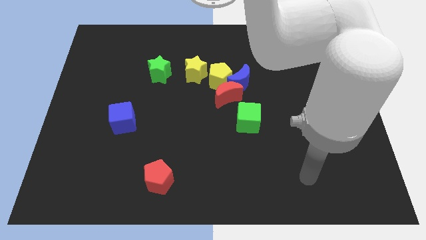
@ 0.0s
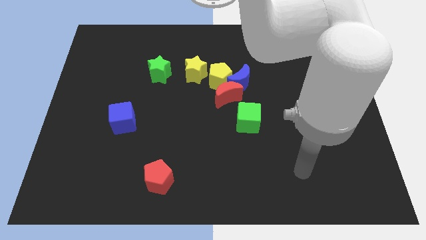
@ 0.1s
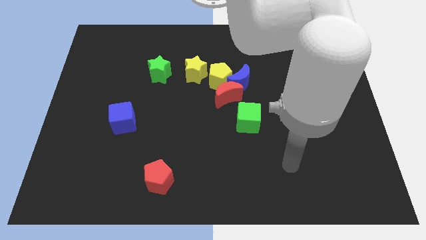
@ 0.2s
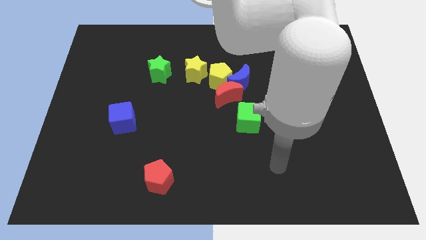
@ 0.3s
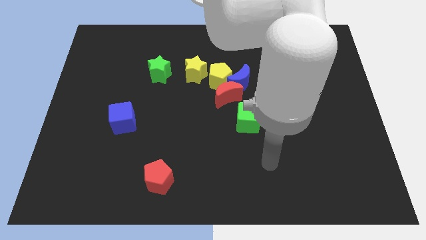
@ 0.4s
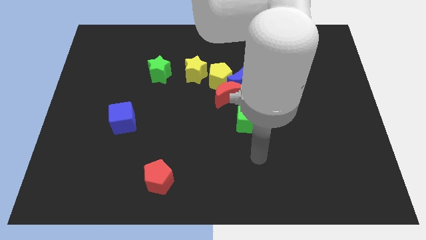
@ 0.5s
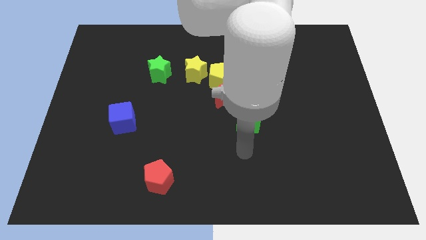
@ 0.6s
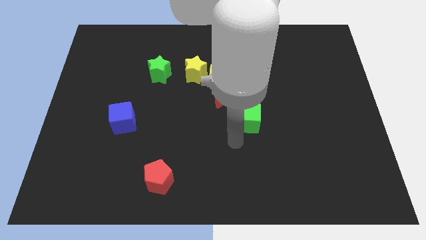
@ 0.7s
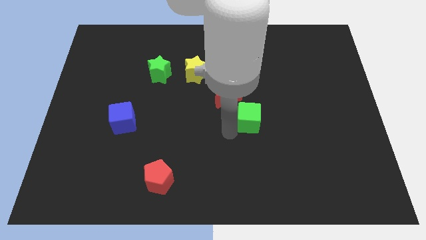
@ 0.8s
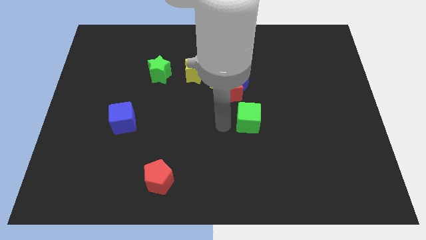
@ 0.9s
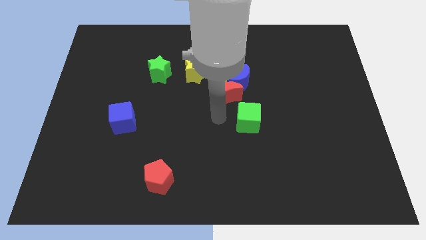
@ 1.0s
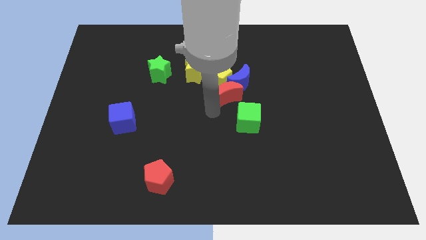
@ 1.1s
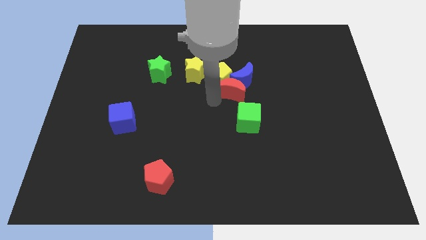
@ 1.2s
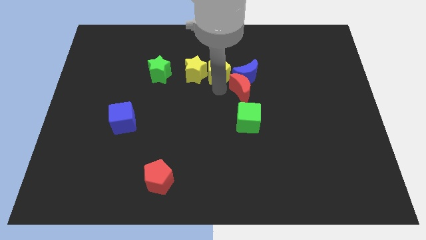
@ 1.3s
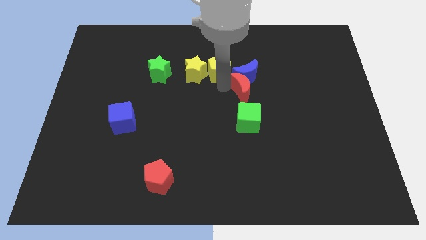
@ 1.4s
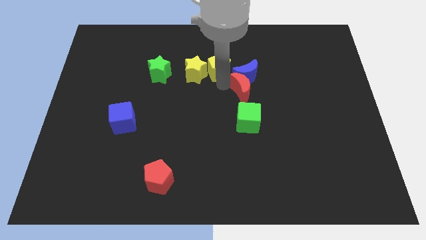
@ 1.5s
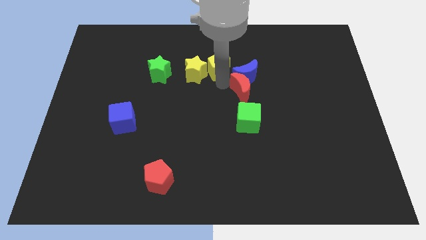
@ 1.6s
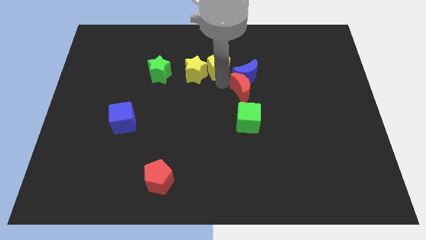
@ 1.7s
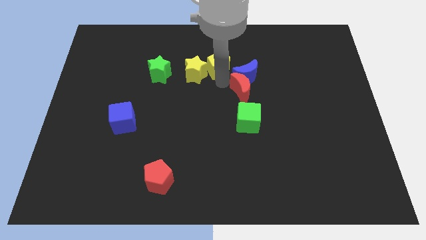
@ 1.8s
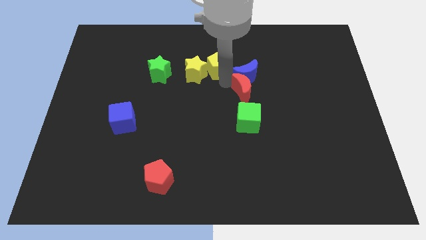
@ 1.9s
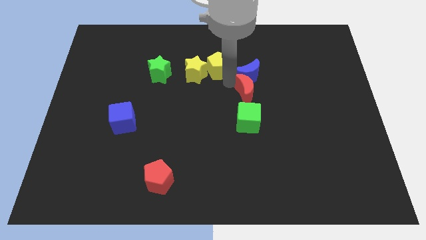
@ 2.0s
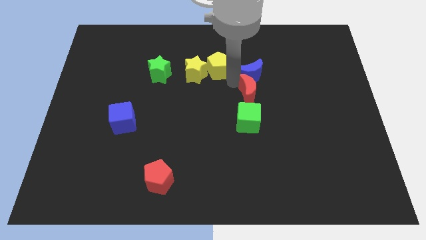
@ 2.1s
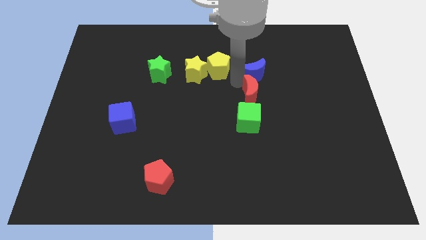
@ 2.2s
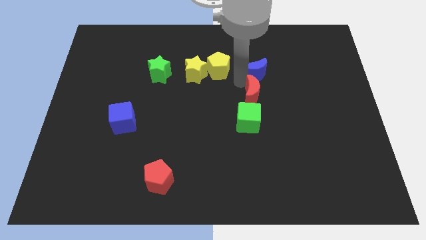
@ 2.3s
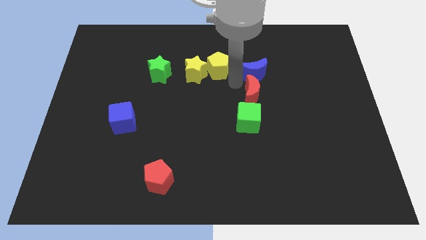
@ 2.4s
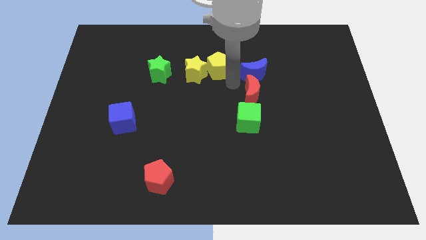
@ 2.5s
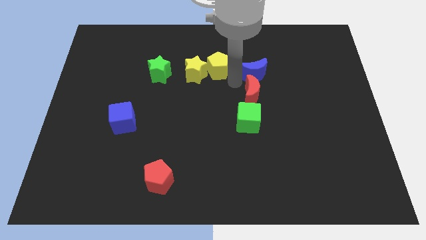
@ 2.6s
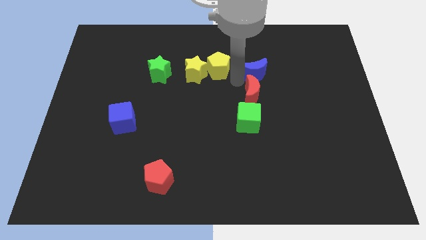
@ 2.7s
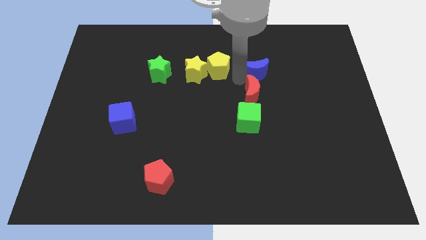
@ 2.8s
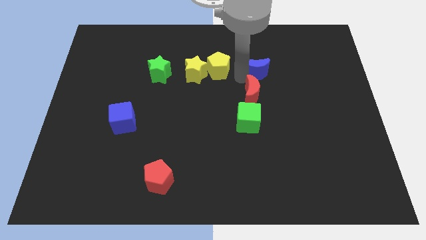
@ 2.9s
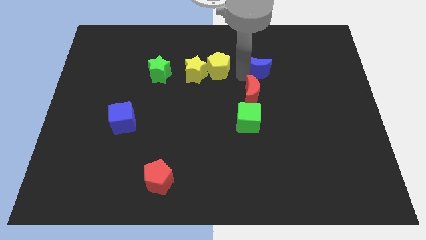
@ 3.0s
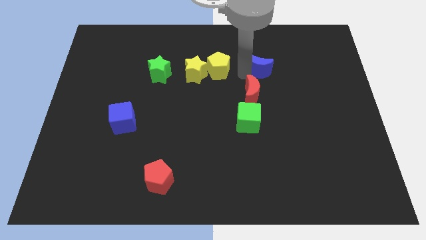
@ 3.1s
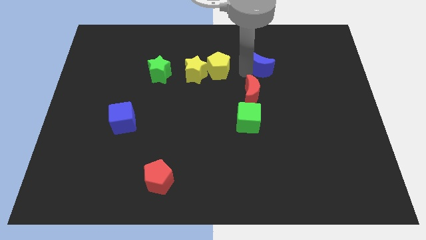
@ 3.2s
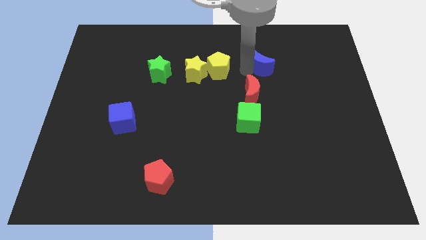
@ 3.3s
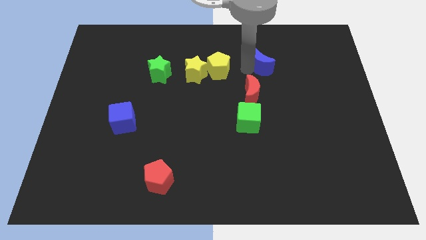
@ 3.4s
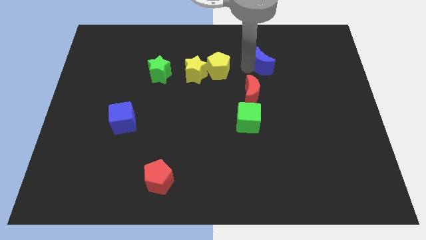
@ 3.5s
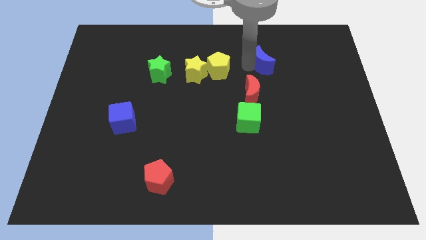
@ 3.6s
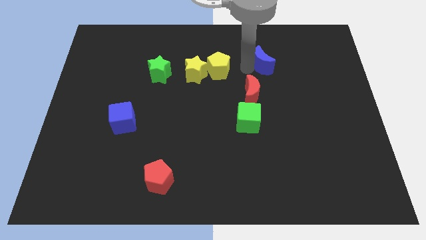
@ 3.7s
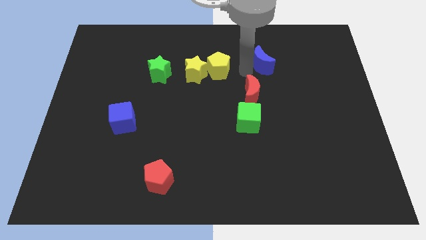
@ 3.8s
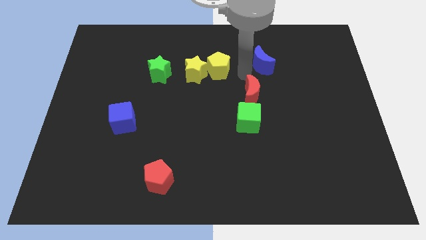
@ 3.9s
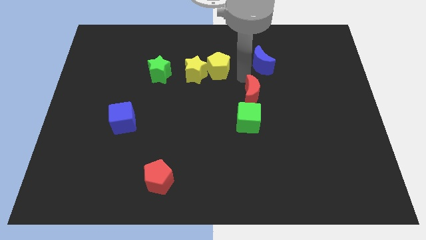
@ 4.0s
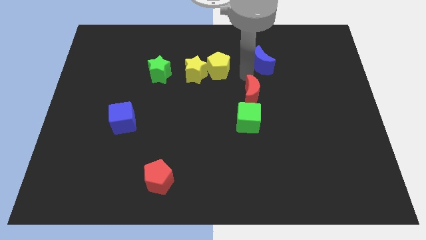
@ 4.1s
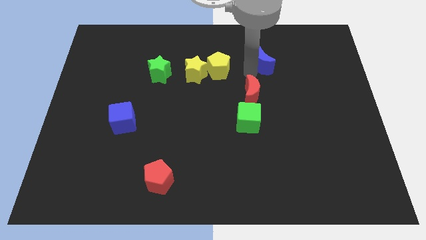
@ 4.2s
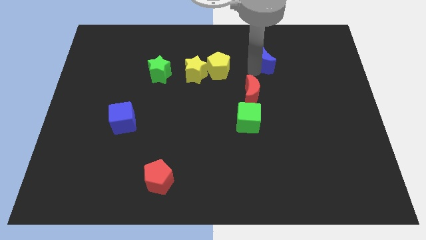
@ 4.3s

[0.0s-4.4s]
move the blue moon away from the yellow pentagon and red moon

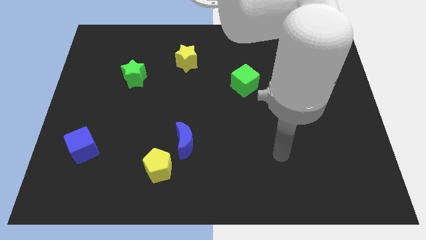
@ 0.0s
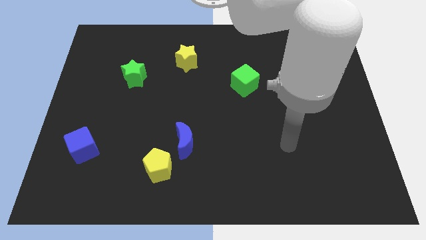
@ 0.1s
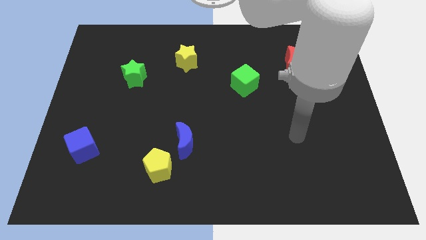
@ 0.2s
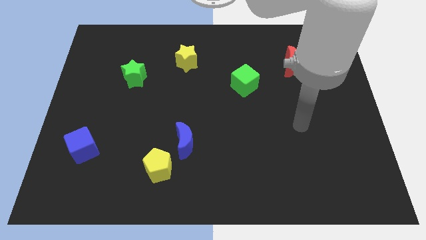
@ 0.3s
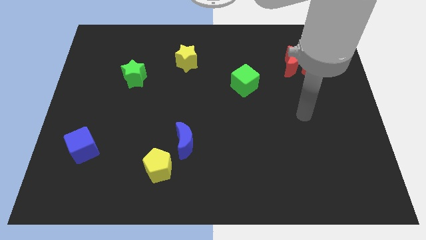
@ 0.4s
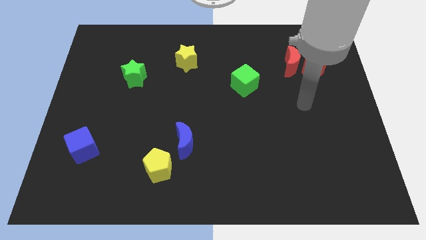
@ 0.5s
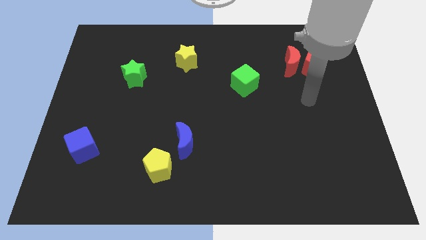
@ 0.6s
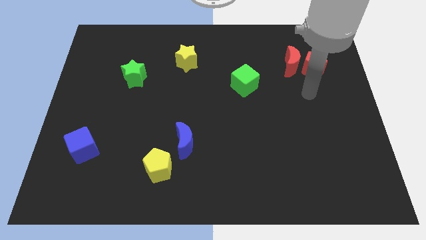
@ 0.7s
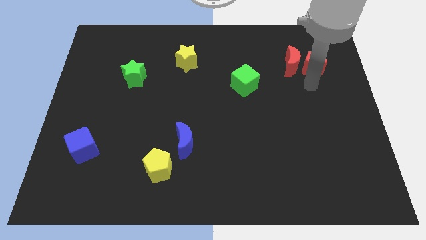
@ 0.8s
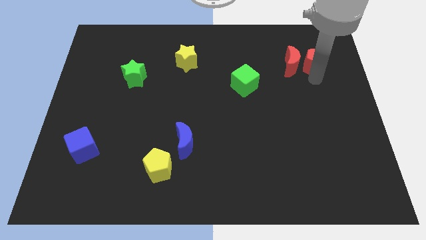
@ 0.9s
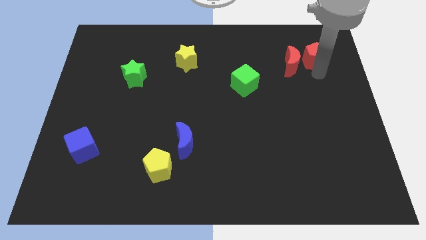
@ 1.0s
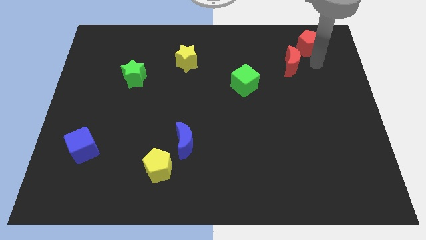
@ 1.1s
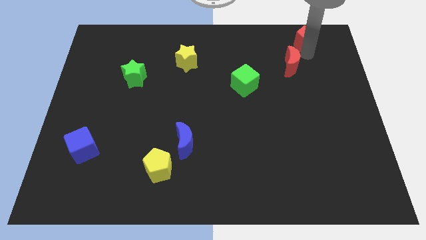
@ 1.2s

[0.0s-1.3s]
separate the red moon from the red pentagon

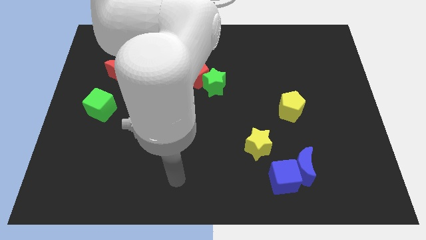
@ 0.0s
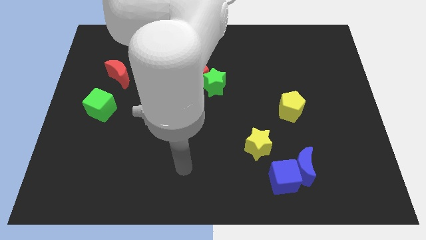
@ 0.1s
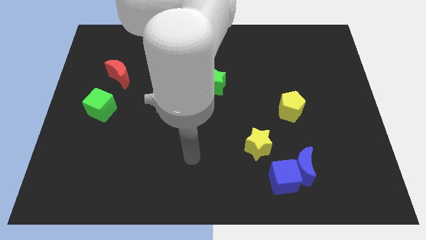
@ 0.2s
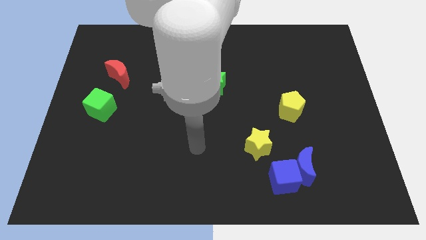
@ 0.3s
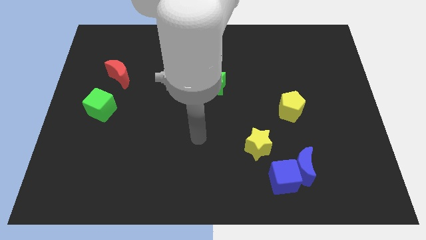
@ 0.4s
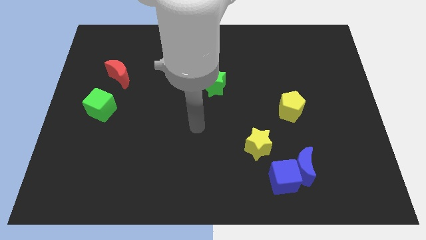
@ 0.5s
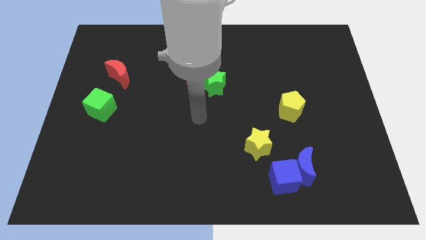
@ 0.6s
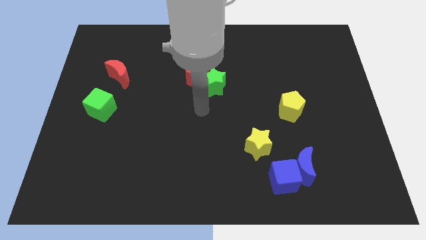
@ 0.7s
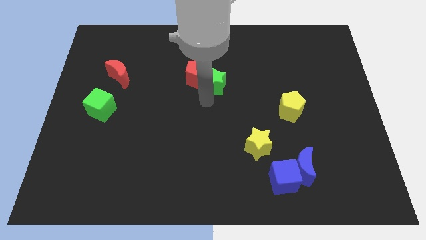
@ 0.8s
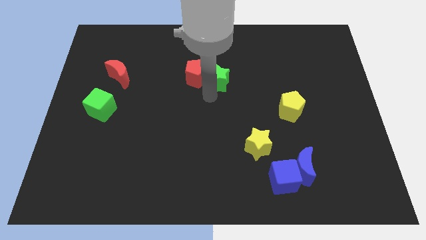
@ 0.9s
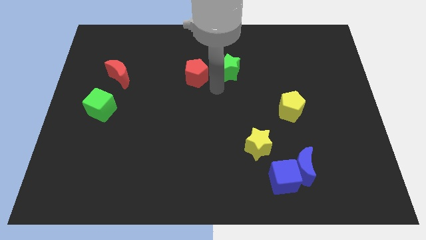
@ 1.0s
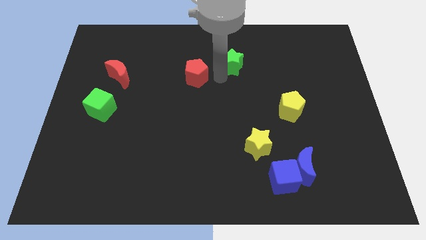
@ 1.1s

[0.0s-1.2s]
move the red pentagon away from the green star

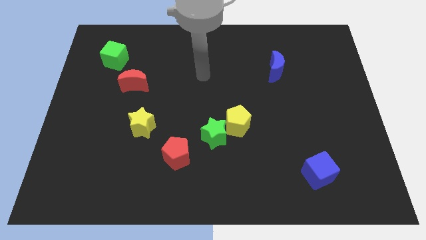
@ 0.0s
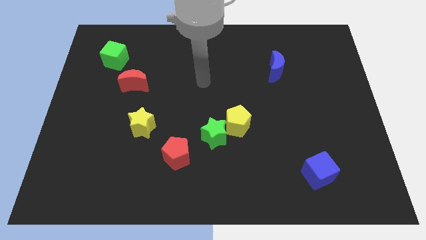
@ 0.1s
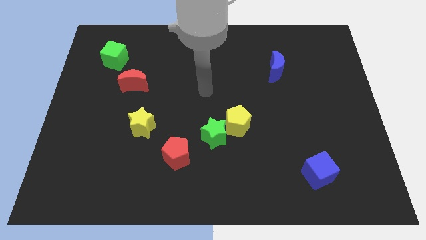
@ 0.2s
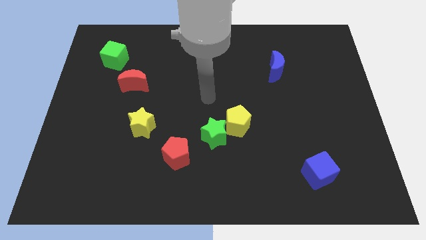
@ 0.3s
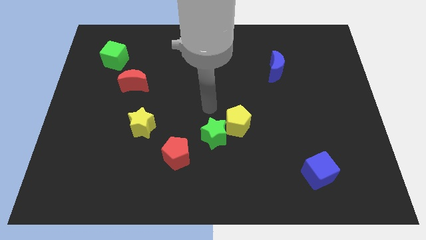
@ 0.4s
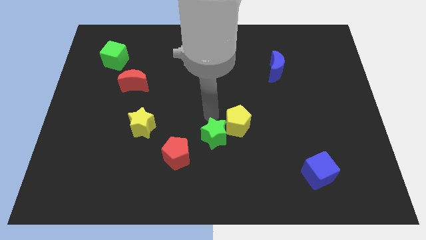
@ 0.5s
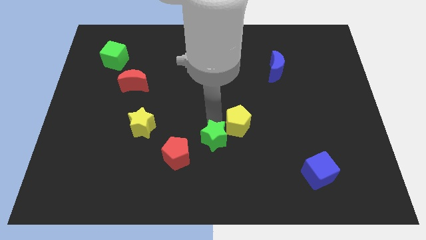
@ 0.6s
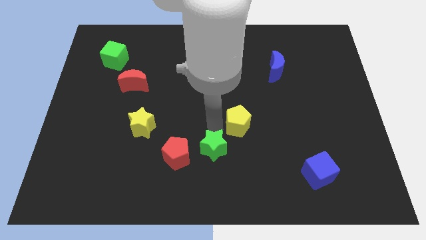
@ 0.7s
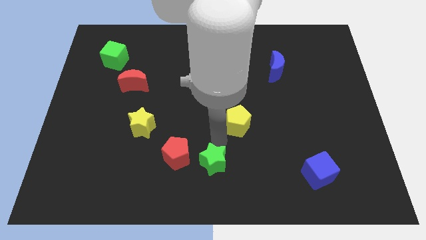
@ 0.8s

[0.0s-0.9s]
pull the yellow pentagon apart from the green star

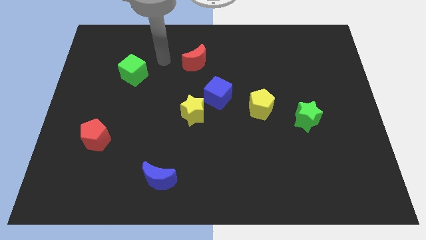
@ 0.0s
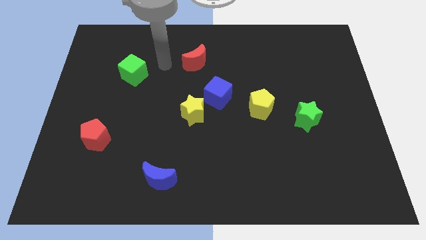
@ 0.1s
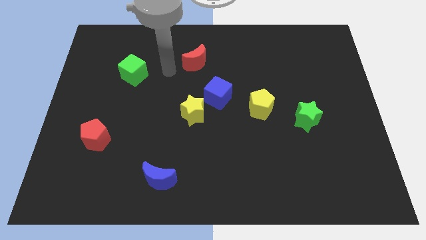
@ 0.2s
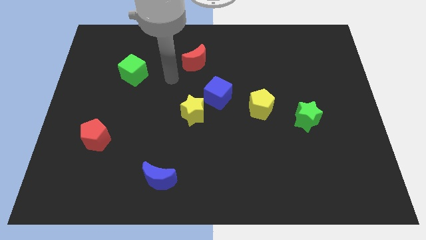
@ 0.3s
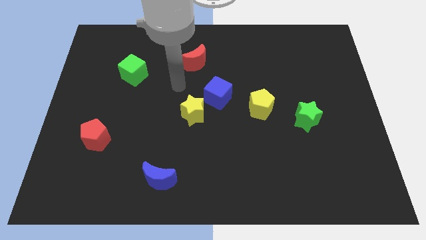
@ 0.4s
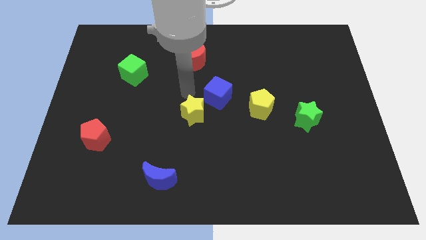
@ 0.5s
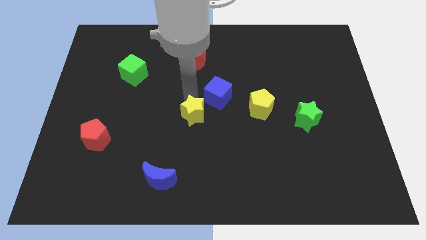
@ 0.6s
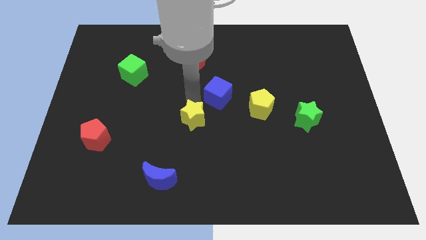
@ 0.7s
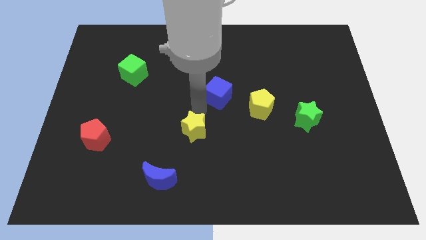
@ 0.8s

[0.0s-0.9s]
move the blue cube away from the yellow star

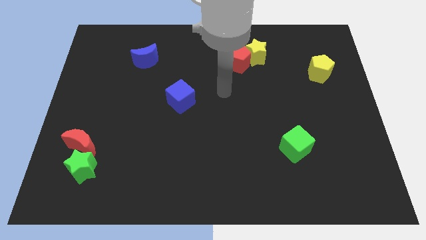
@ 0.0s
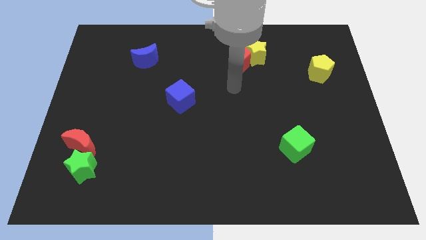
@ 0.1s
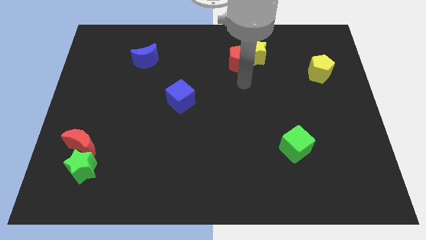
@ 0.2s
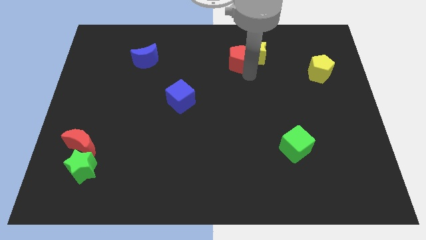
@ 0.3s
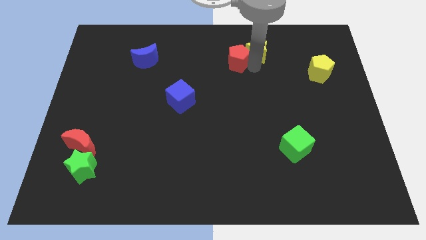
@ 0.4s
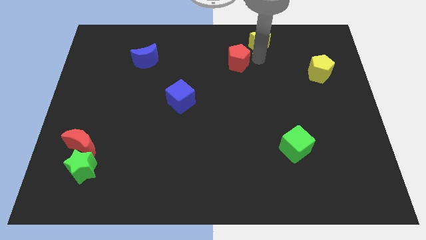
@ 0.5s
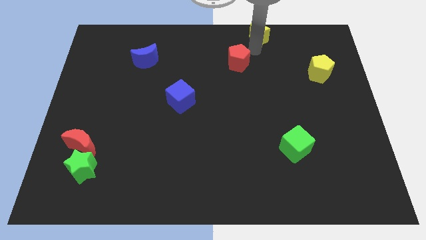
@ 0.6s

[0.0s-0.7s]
move the red pentagon away from the yellow star
